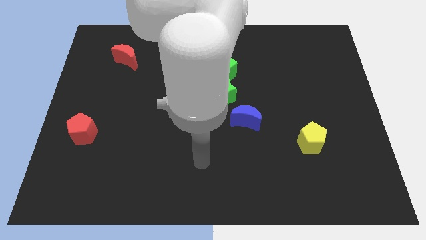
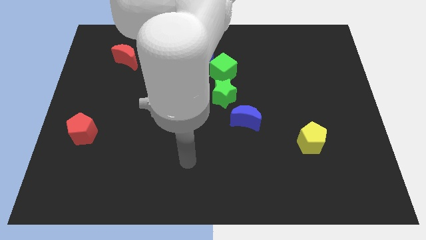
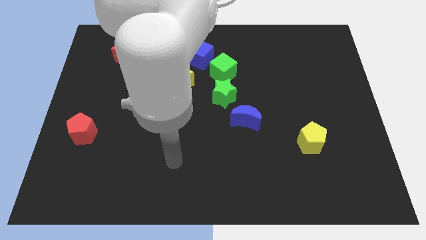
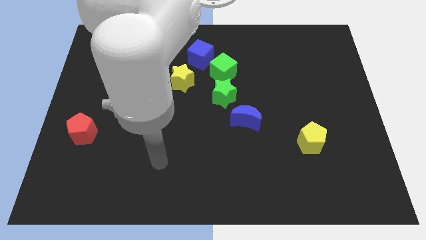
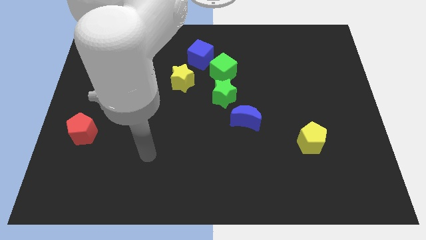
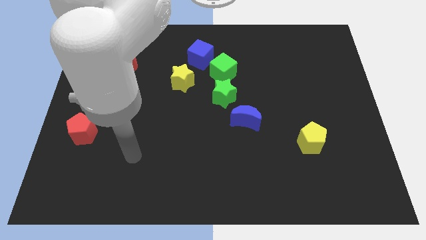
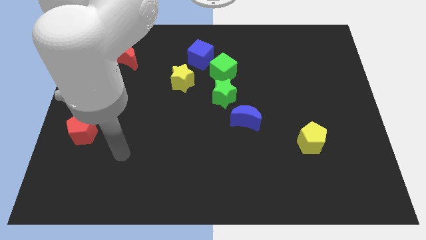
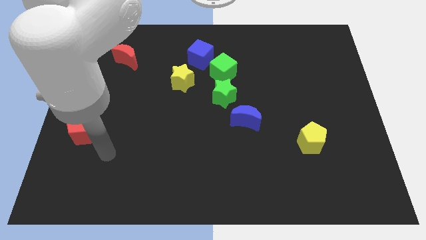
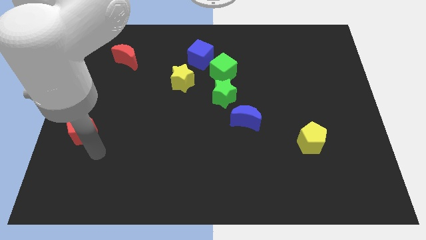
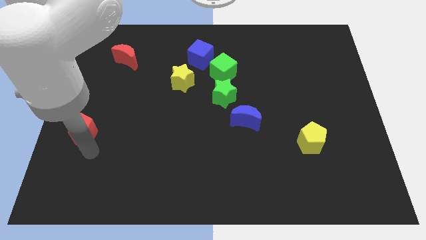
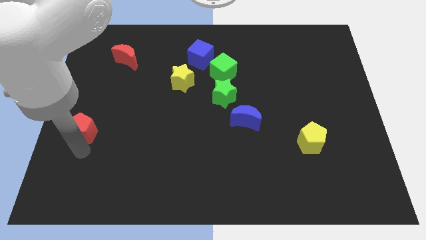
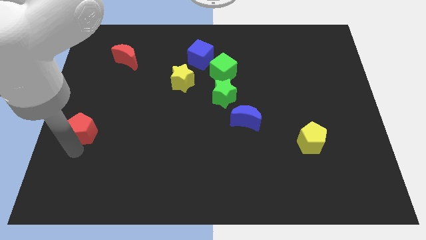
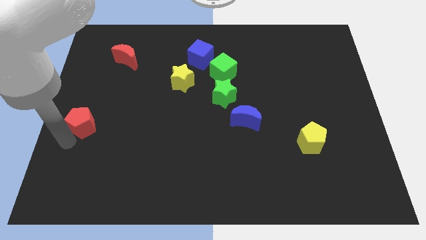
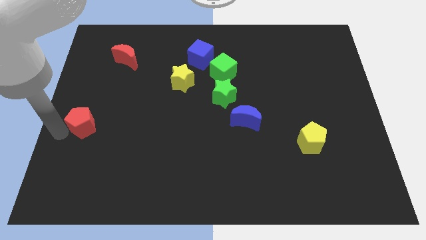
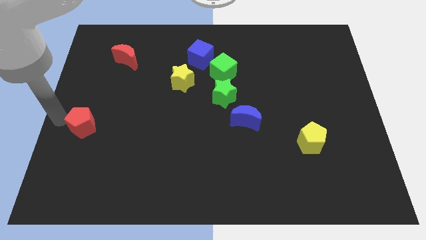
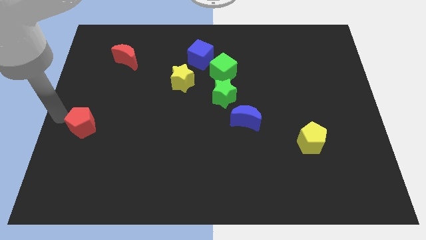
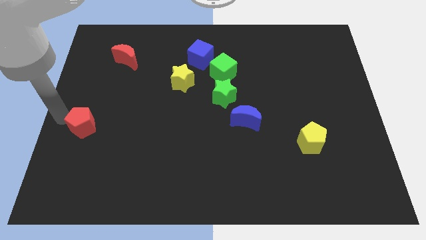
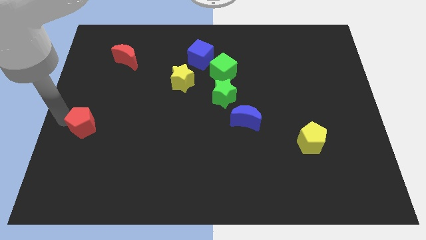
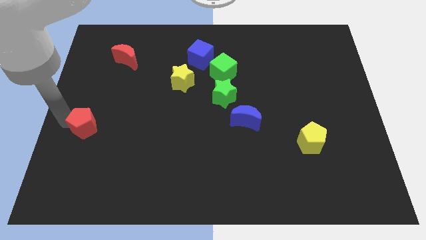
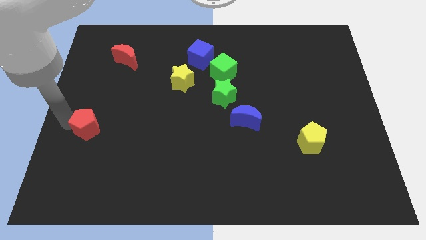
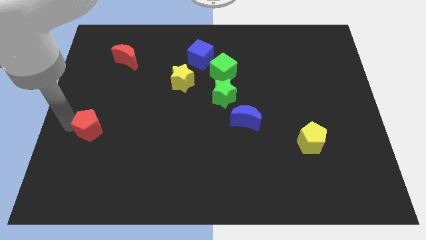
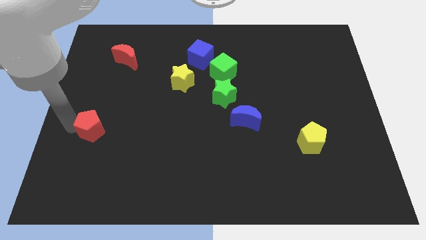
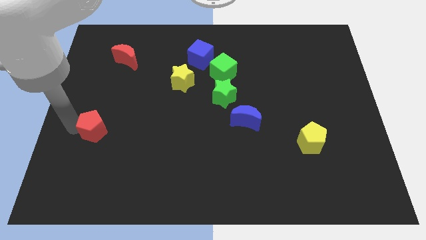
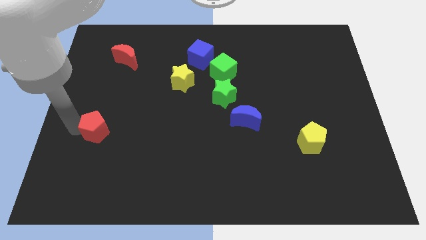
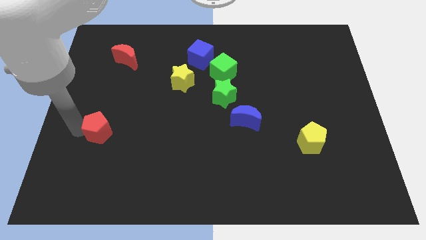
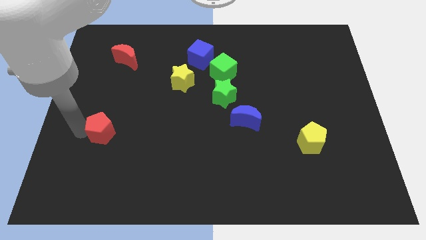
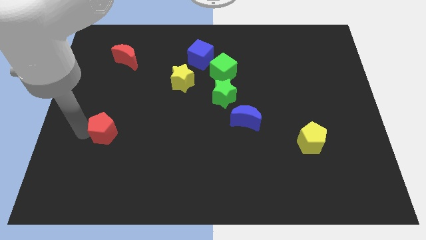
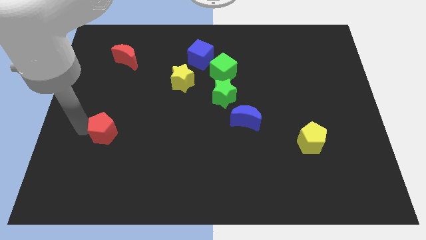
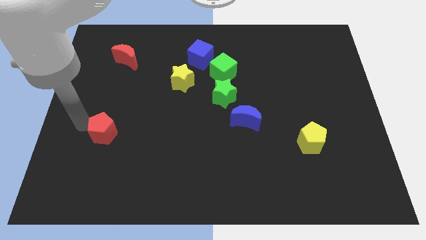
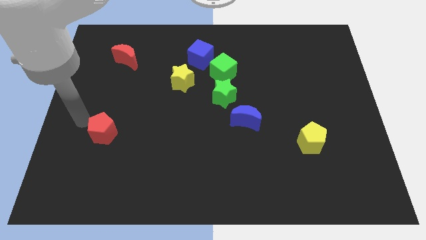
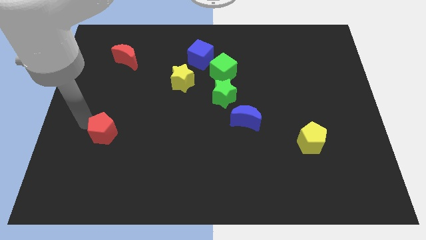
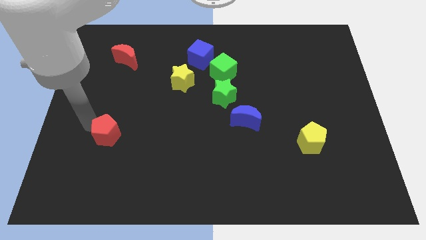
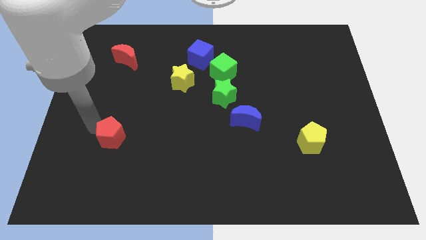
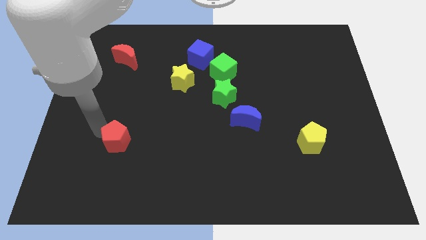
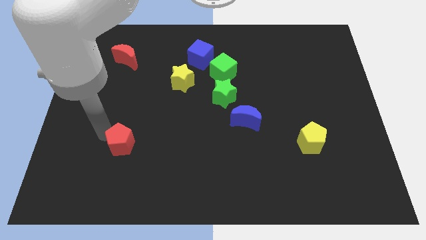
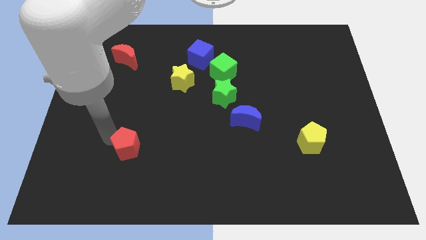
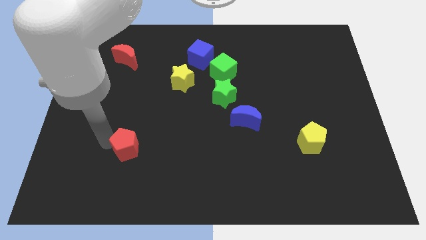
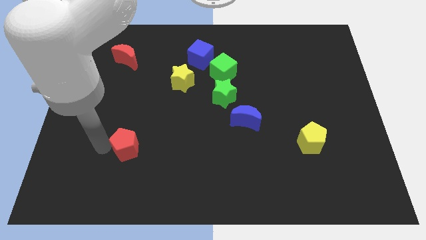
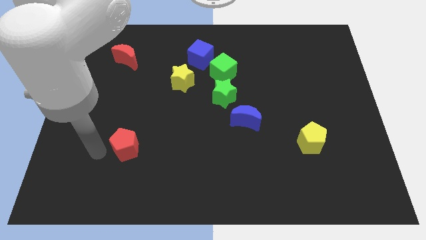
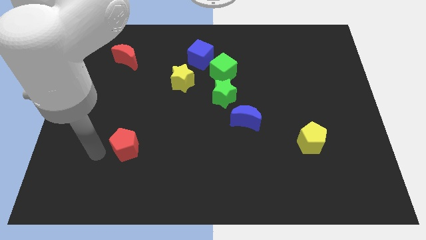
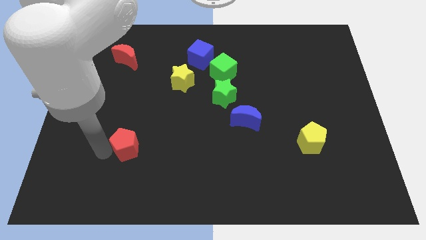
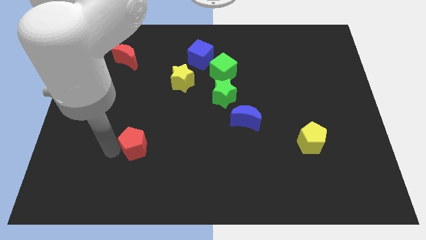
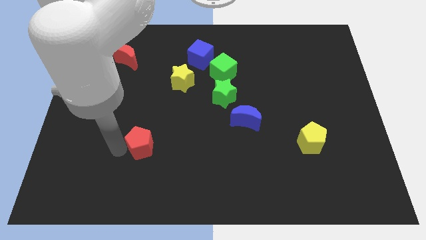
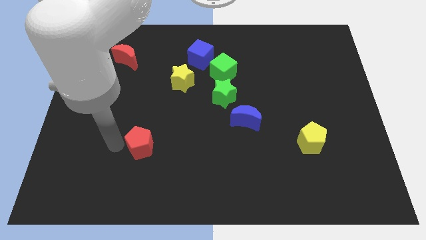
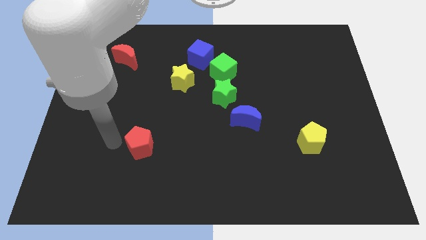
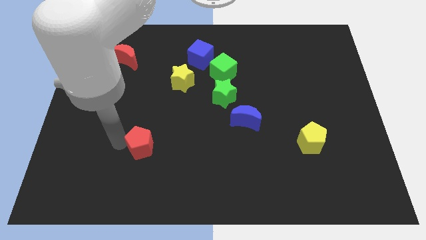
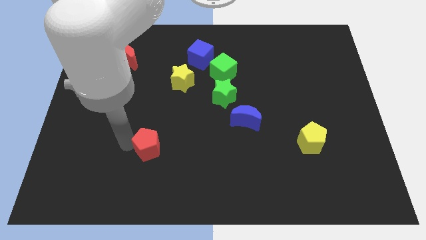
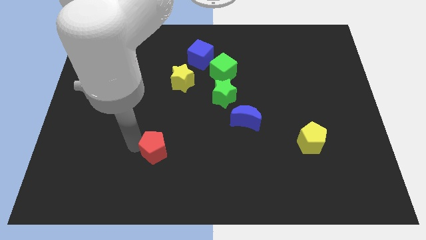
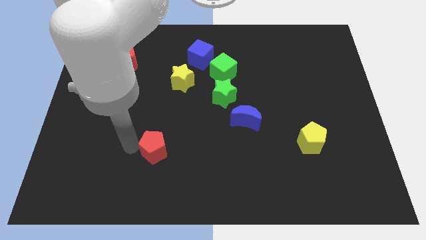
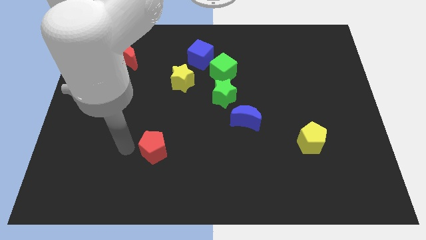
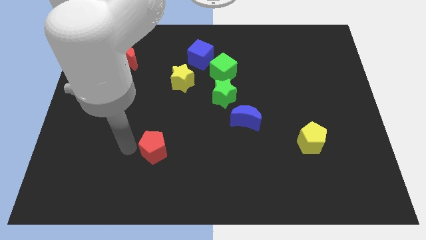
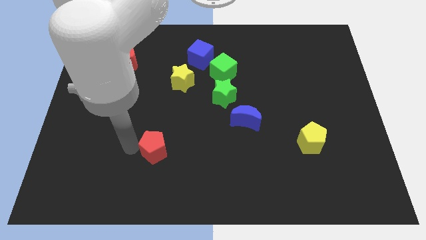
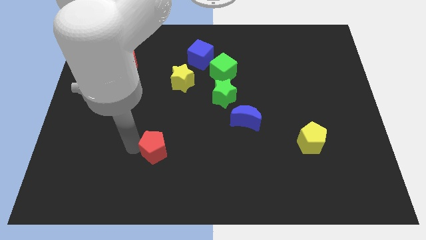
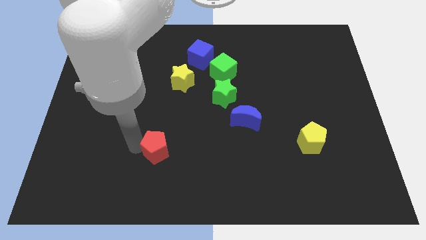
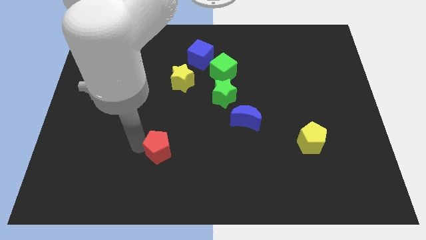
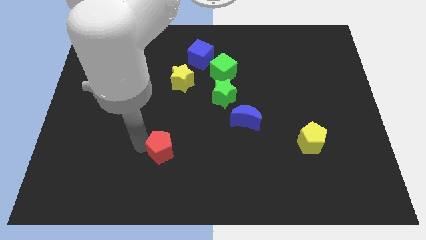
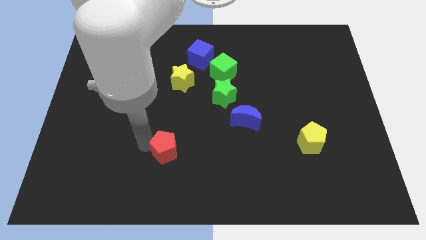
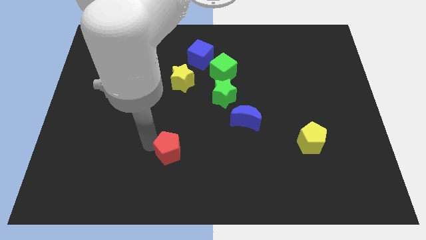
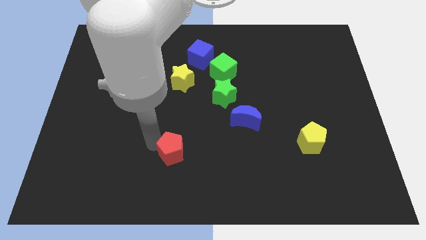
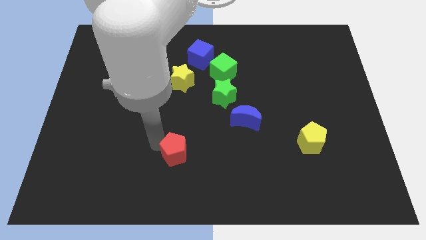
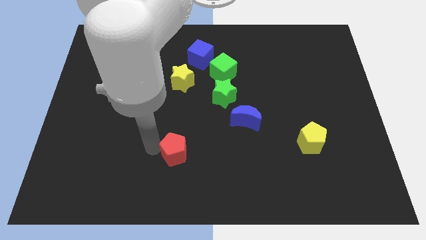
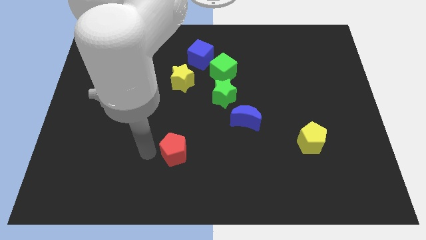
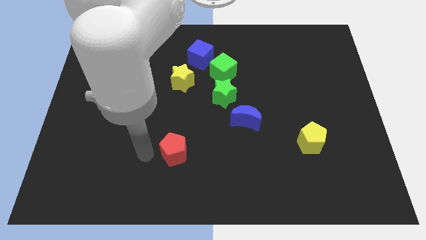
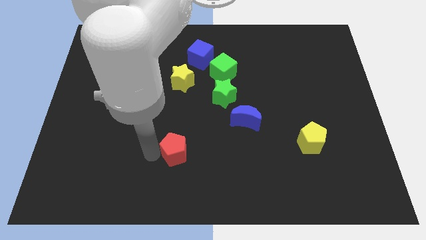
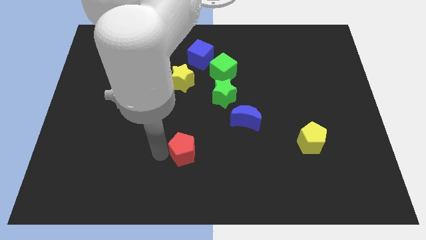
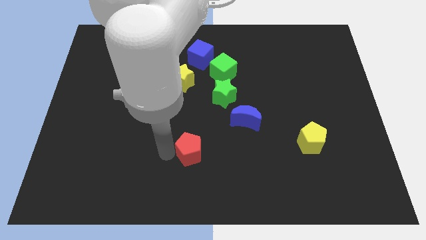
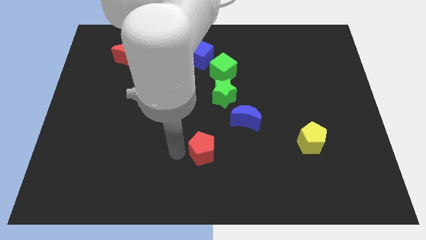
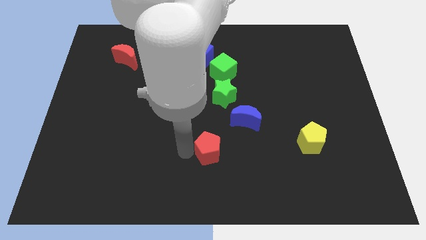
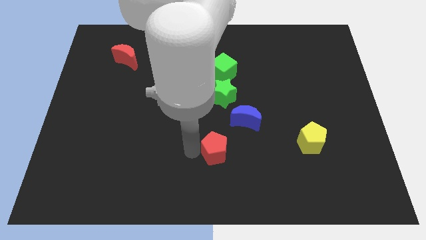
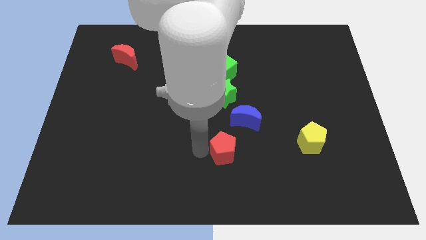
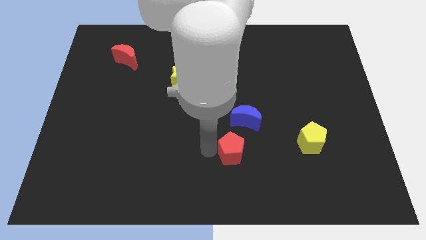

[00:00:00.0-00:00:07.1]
put the red pentagon to the bottom side of the blue moon
